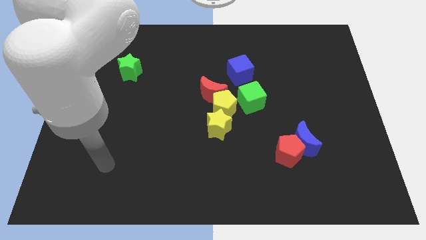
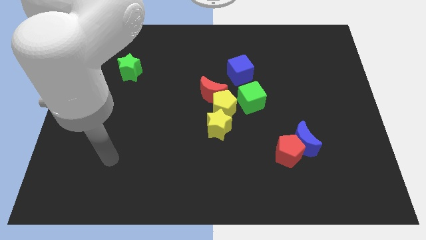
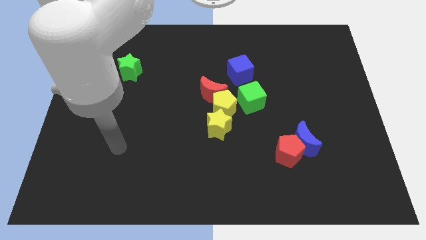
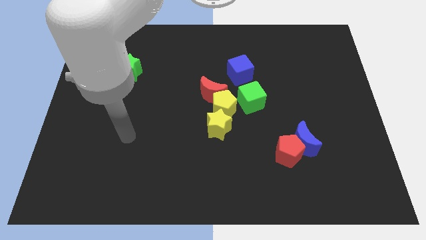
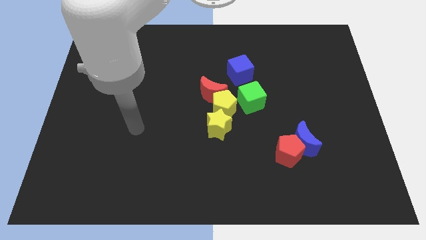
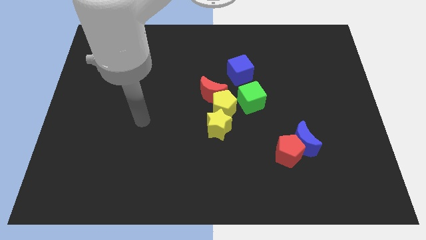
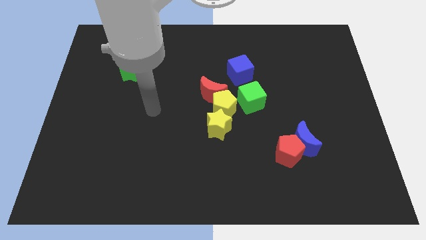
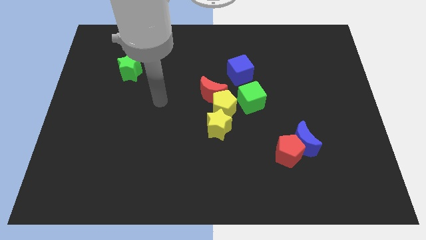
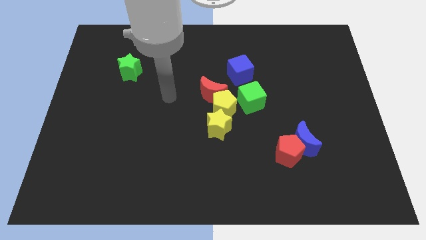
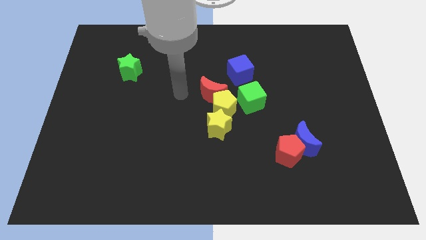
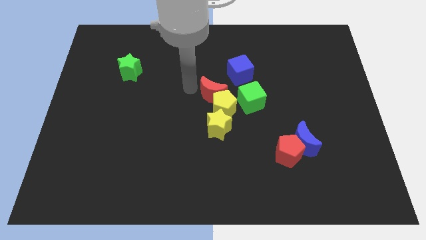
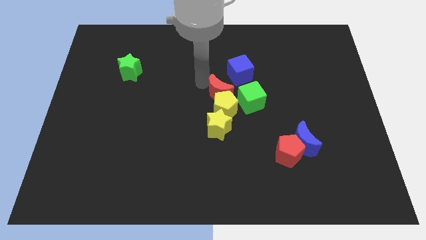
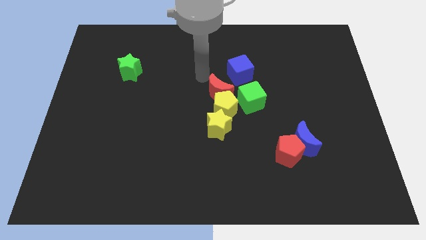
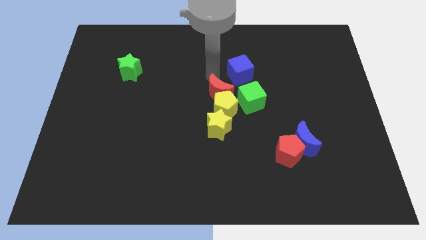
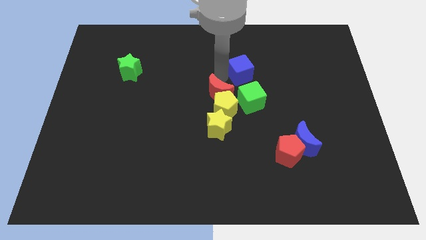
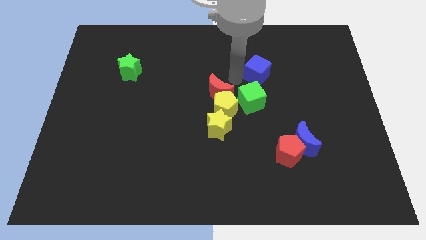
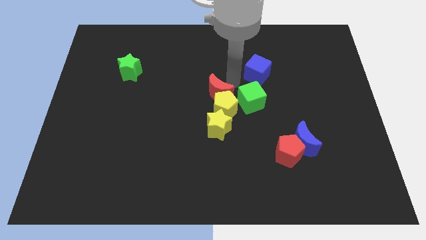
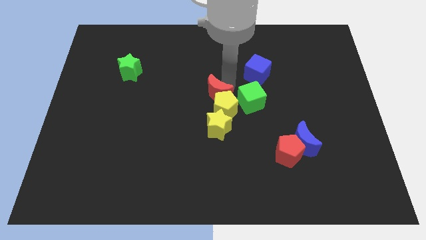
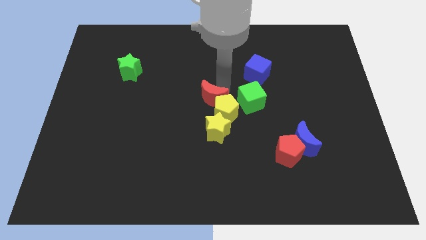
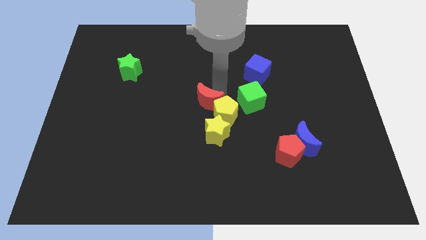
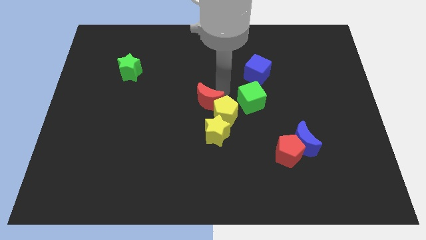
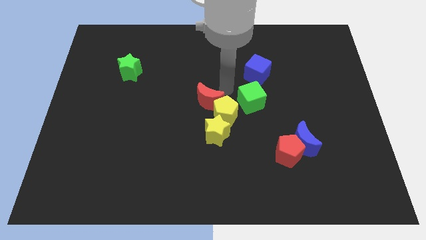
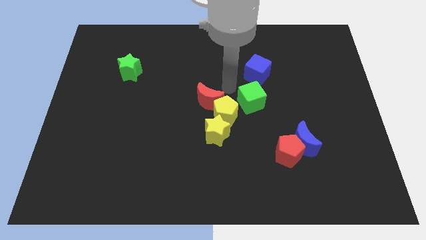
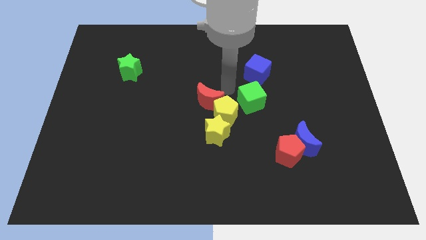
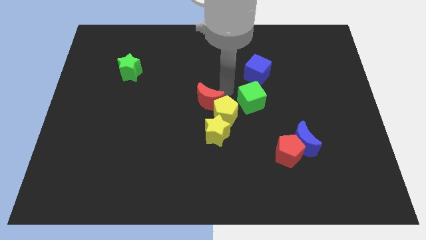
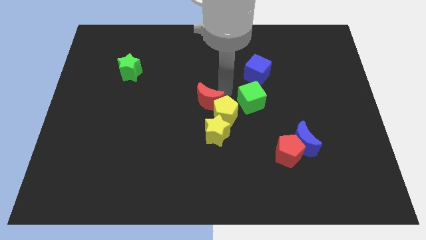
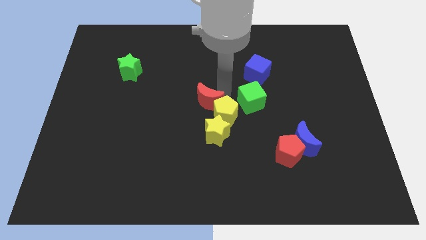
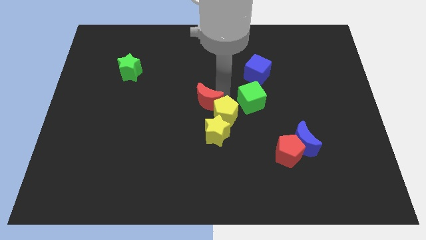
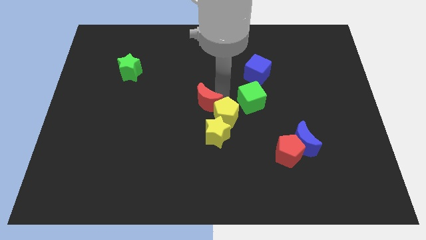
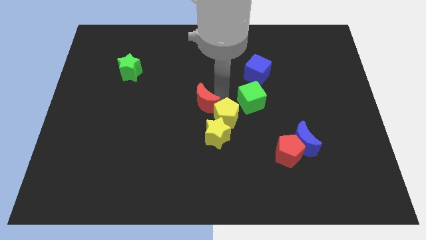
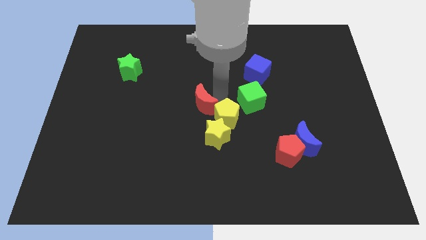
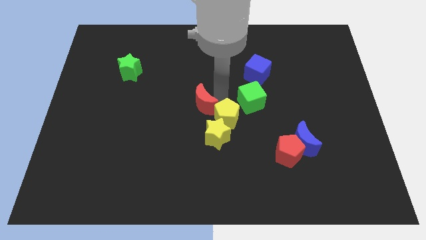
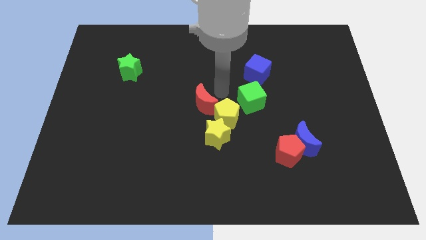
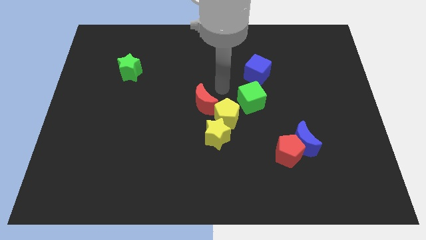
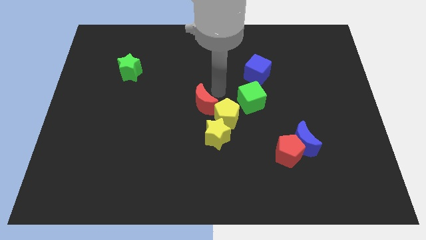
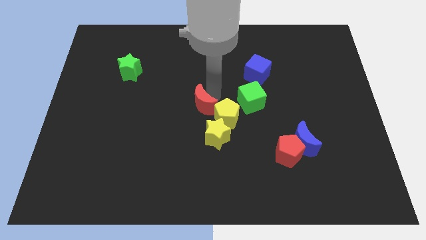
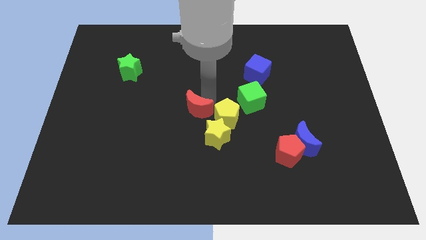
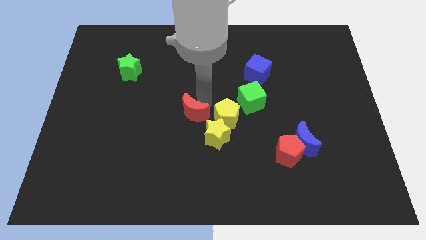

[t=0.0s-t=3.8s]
push the red moon a little downwards and left

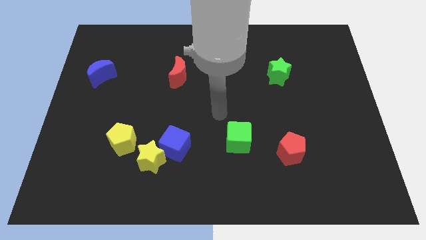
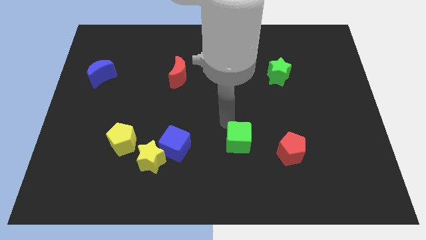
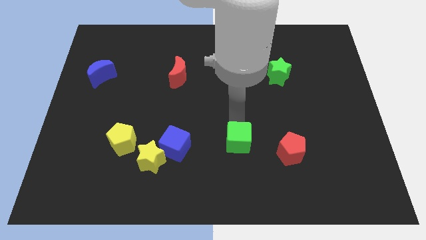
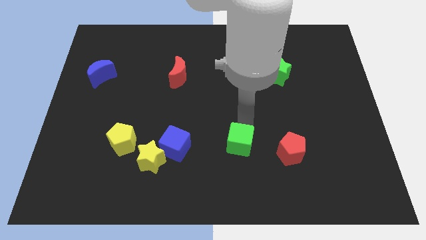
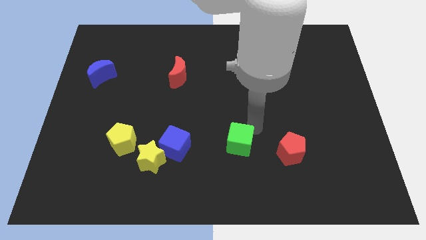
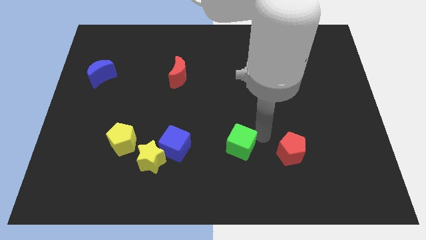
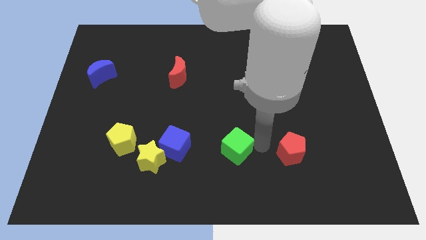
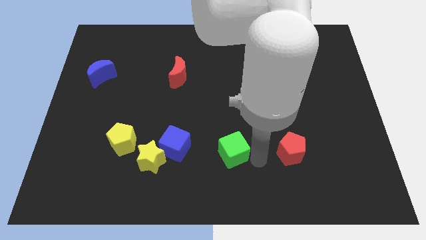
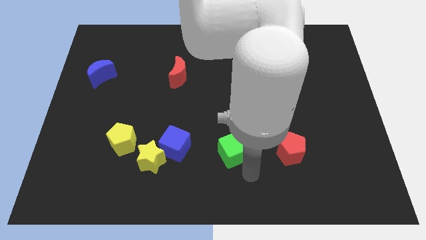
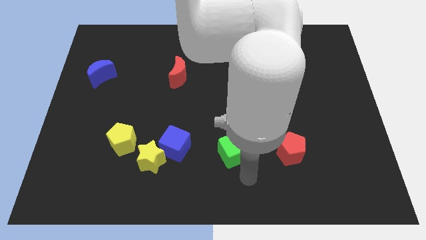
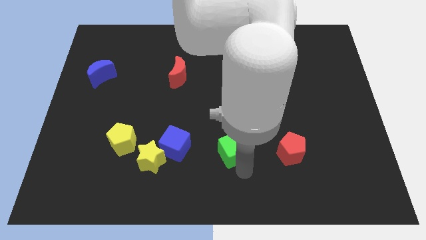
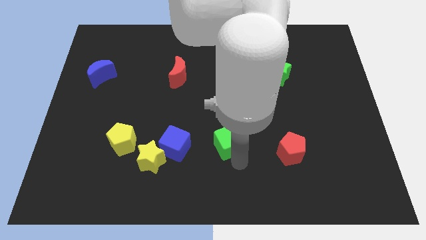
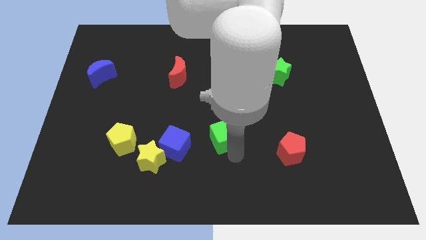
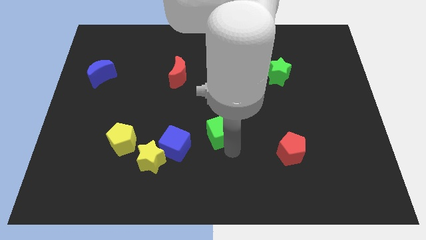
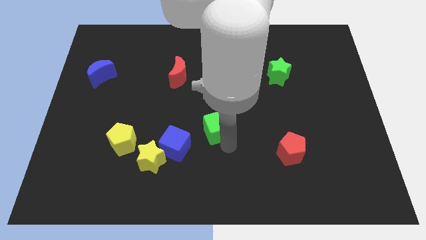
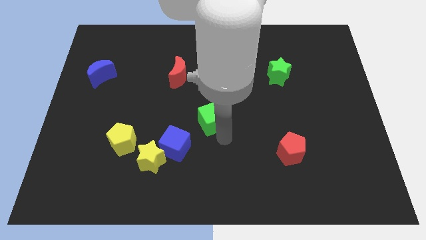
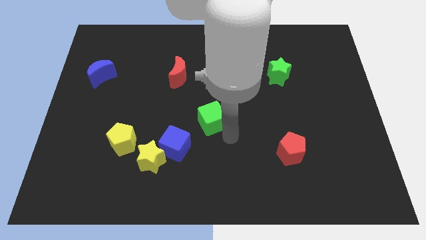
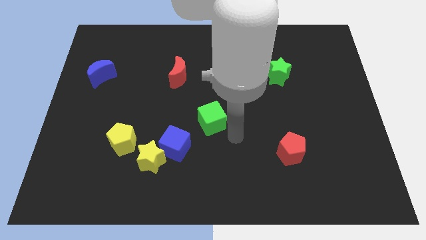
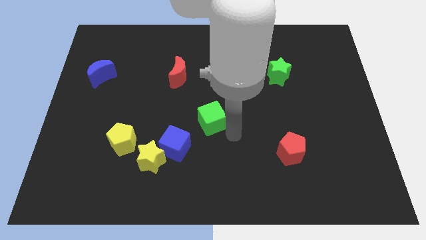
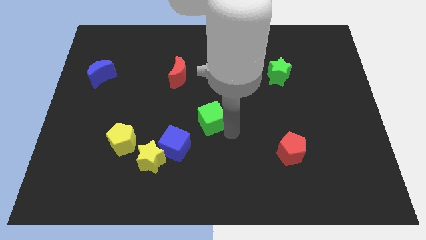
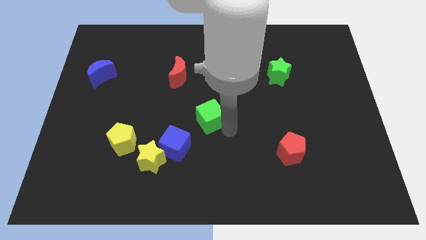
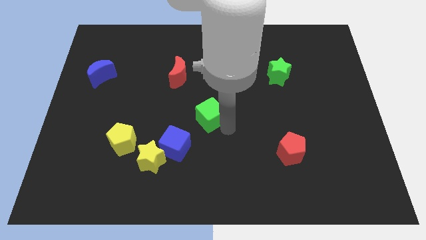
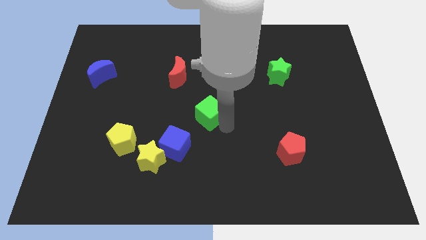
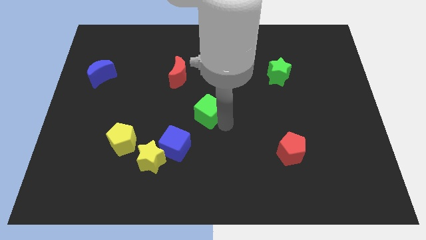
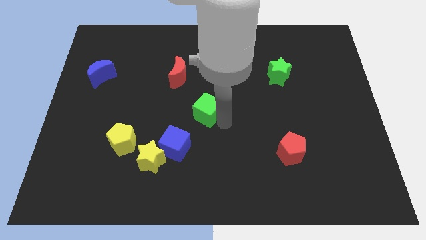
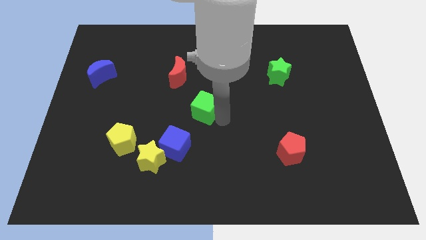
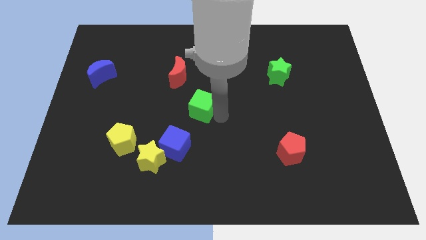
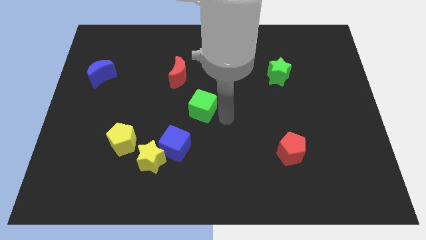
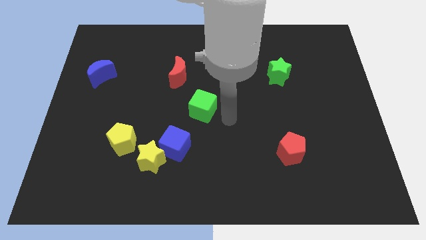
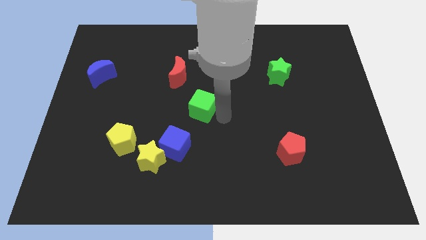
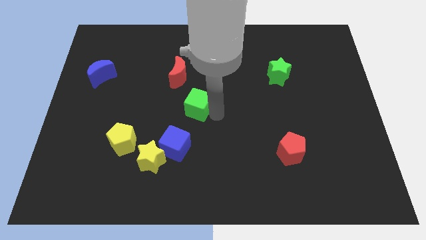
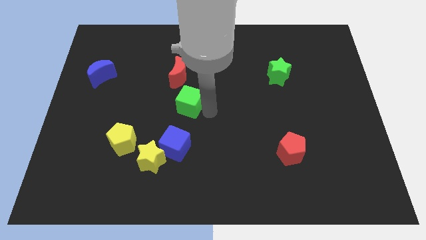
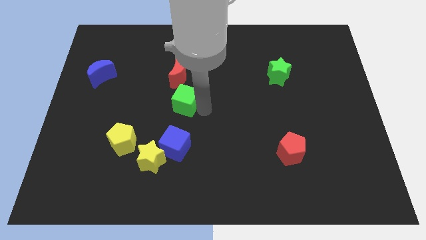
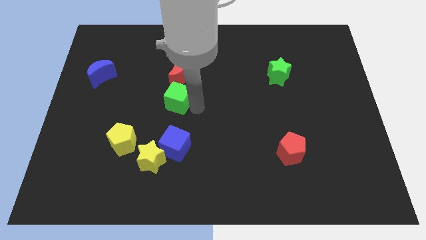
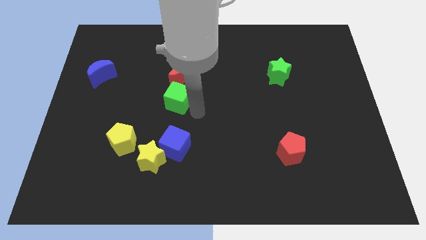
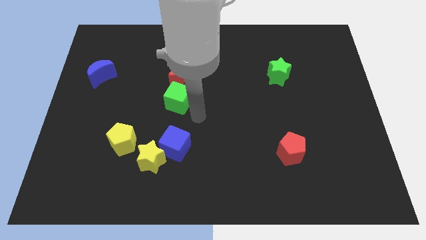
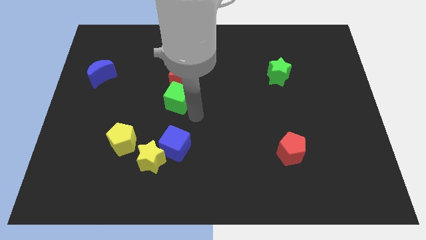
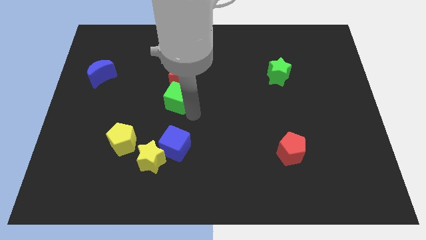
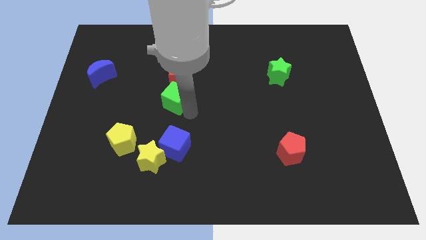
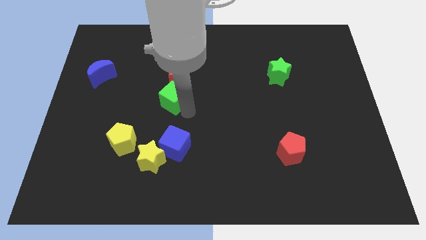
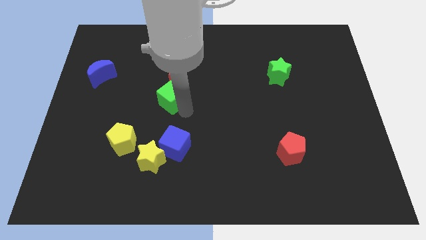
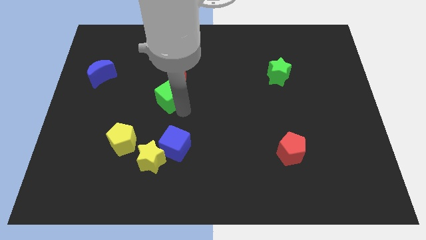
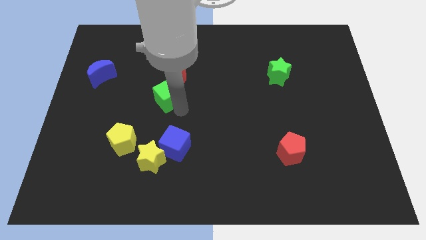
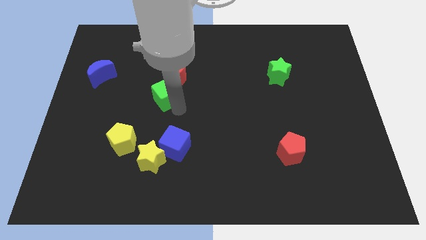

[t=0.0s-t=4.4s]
slide the green cube upwards and then left
